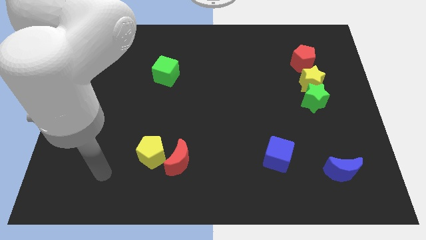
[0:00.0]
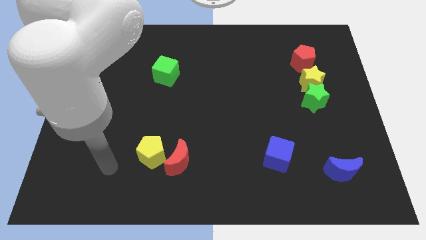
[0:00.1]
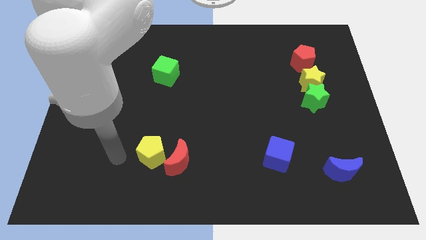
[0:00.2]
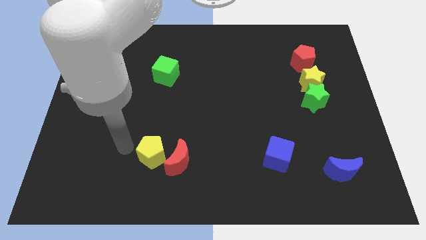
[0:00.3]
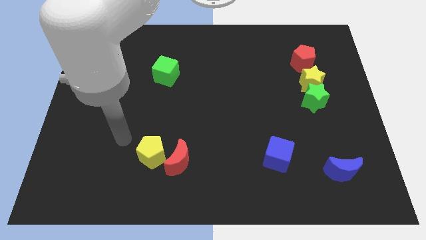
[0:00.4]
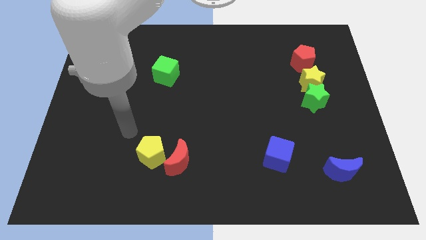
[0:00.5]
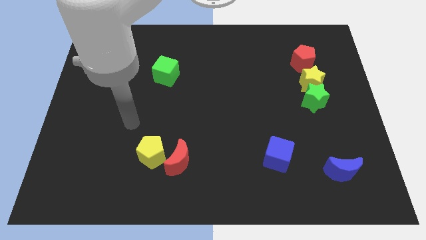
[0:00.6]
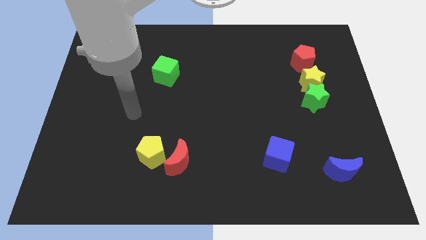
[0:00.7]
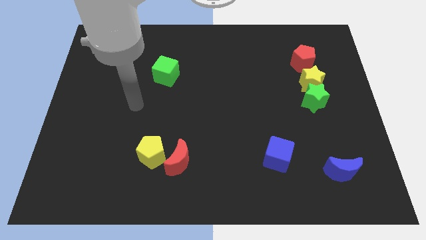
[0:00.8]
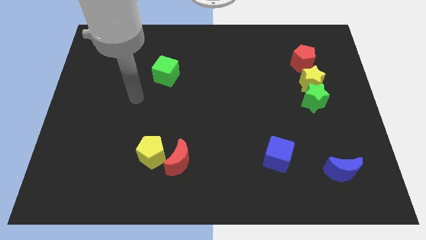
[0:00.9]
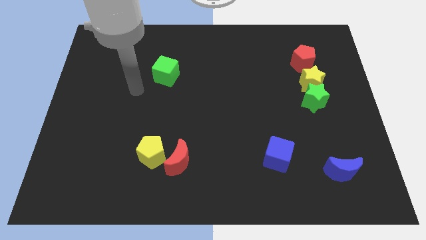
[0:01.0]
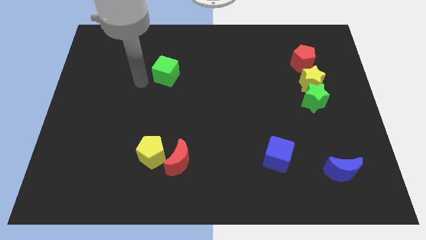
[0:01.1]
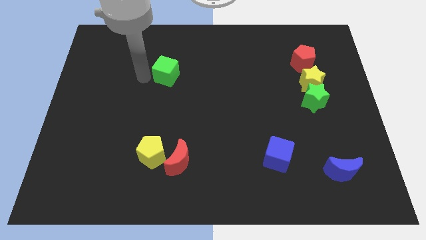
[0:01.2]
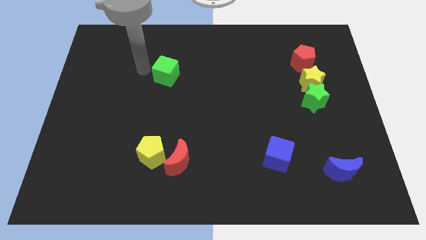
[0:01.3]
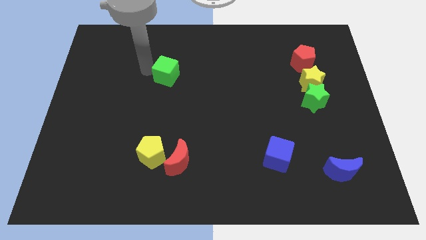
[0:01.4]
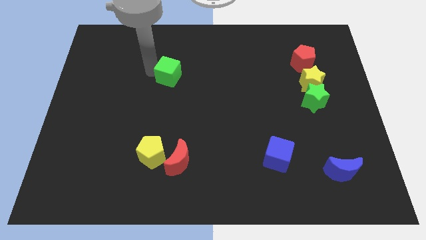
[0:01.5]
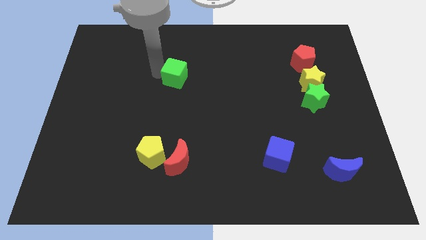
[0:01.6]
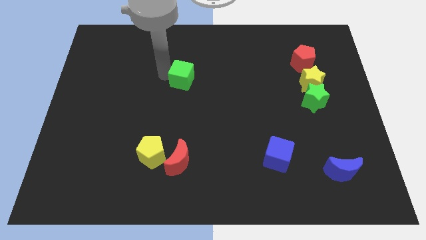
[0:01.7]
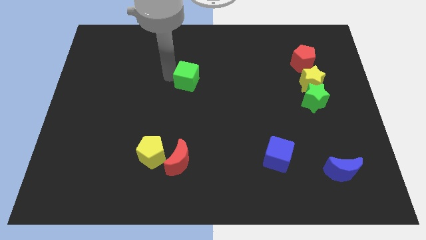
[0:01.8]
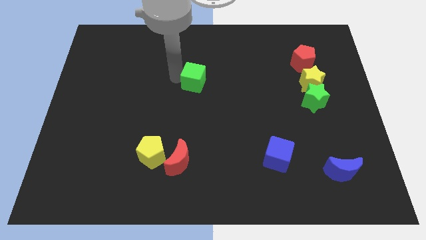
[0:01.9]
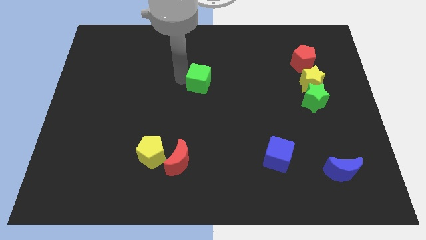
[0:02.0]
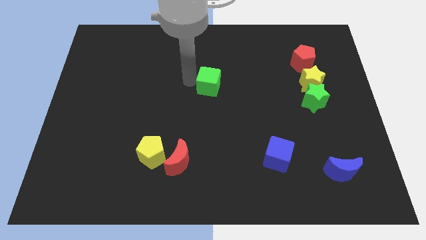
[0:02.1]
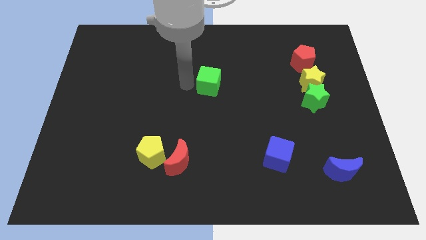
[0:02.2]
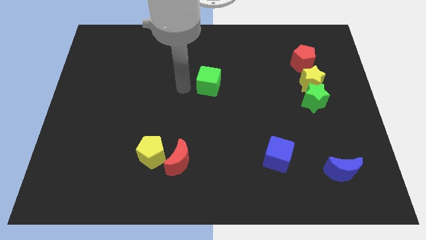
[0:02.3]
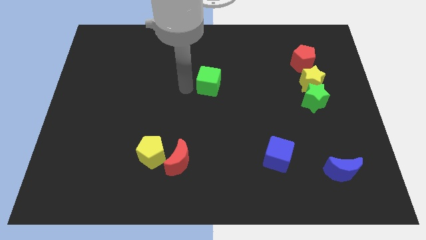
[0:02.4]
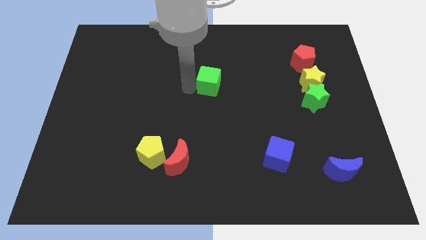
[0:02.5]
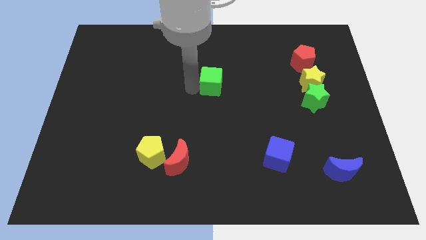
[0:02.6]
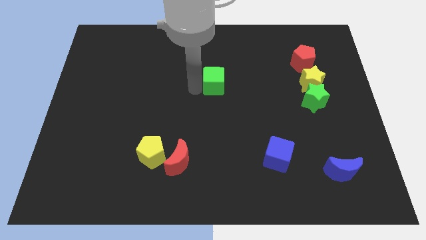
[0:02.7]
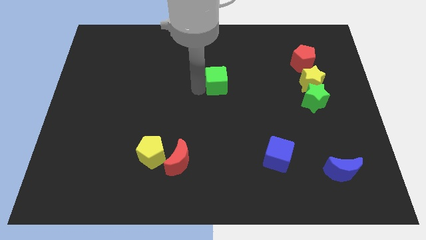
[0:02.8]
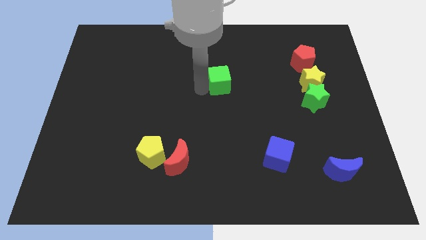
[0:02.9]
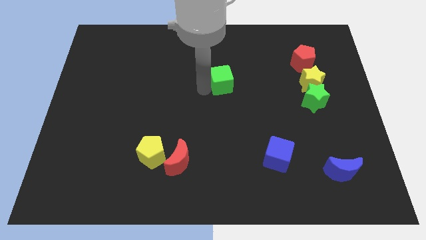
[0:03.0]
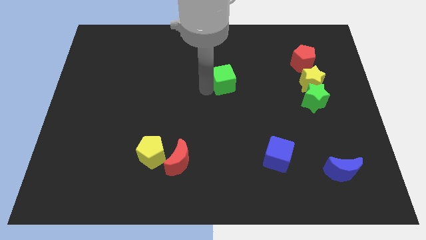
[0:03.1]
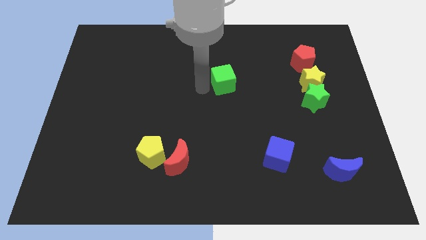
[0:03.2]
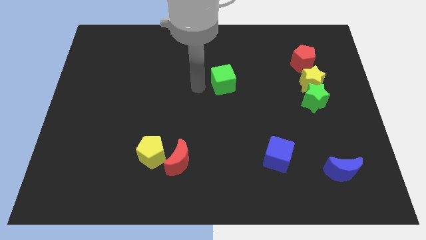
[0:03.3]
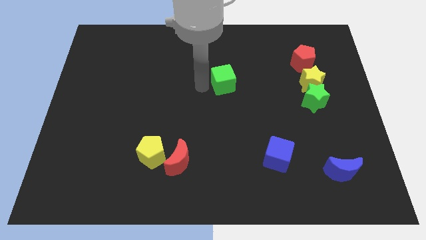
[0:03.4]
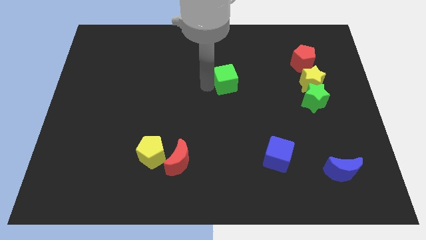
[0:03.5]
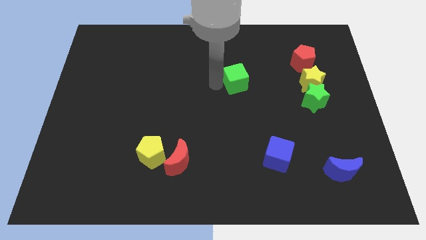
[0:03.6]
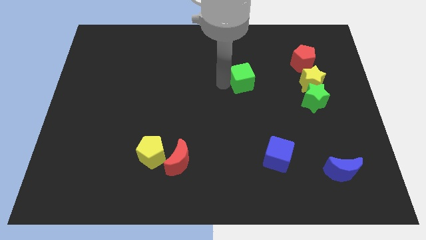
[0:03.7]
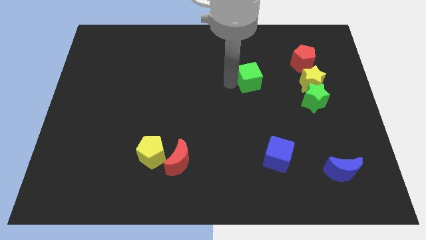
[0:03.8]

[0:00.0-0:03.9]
slide the green cube right

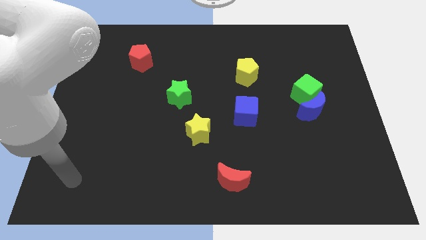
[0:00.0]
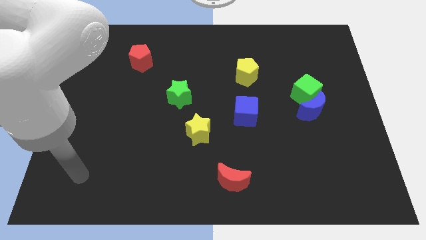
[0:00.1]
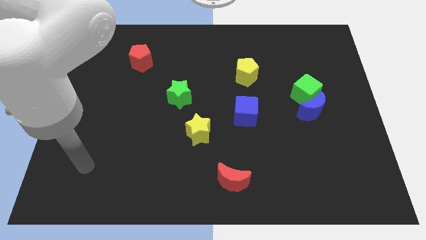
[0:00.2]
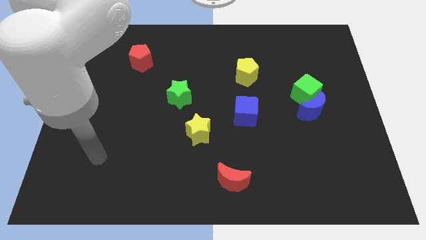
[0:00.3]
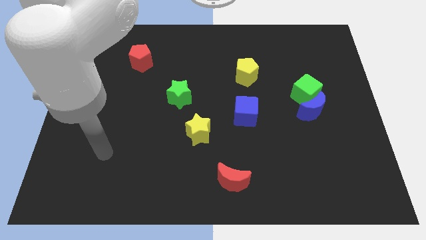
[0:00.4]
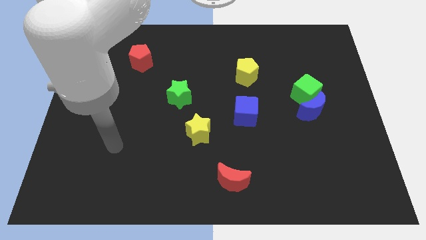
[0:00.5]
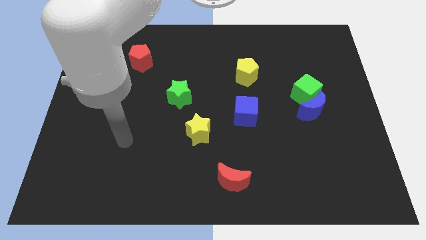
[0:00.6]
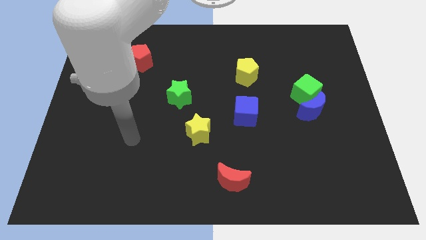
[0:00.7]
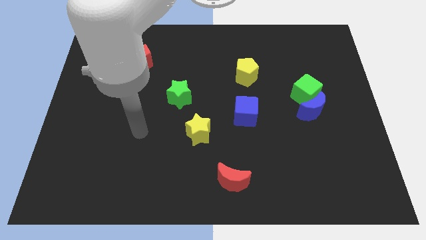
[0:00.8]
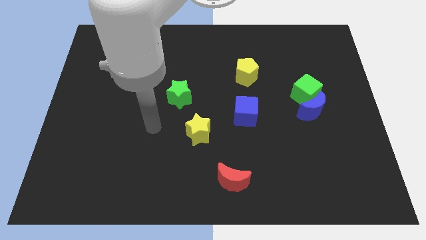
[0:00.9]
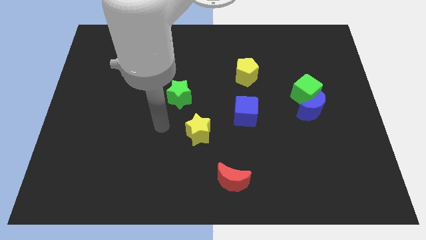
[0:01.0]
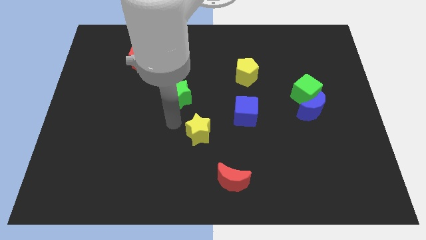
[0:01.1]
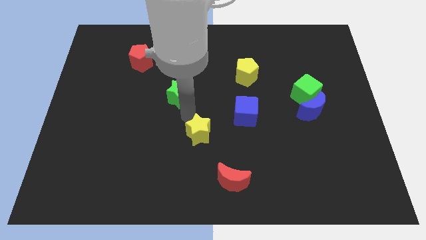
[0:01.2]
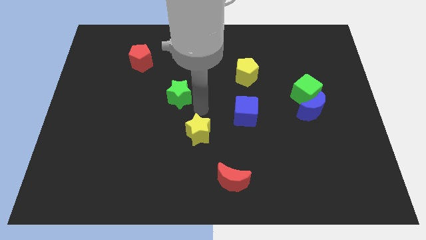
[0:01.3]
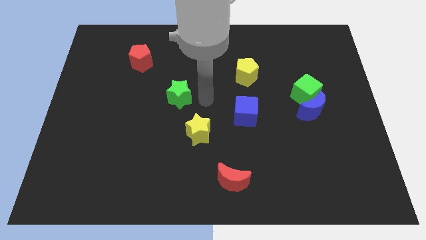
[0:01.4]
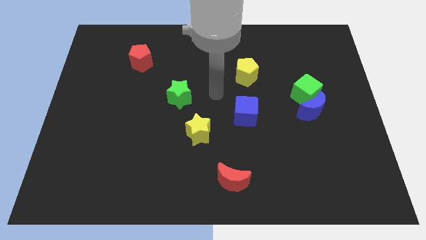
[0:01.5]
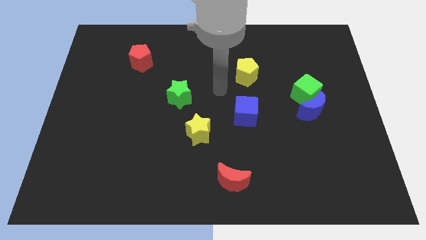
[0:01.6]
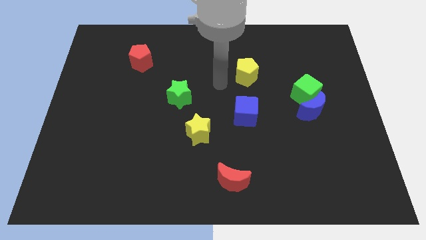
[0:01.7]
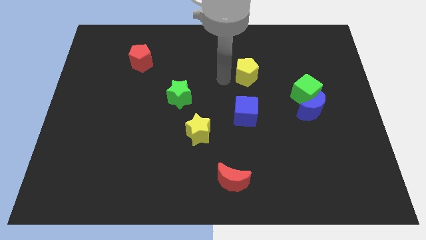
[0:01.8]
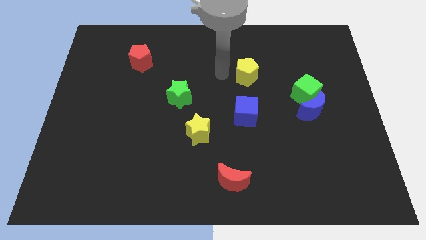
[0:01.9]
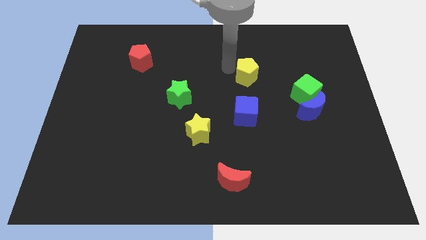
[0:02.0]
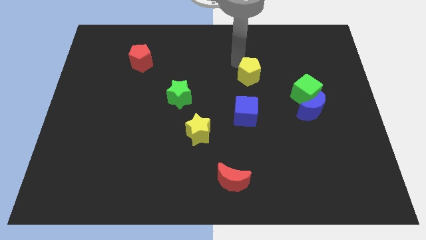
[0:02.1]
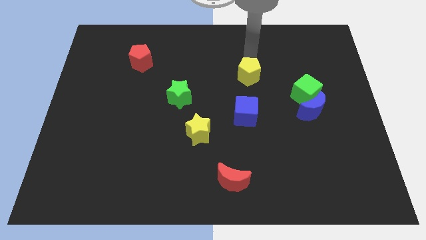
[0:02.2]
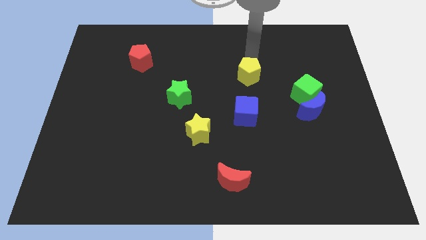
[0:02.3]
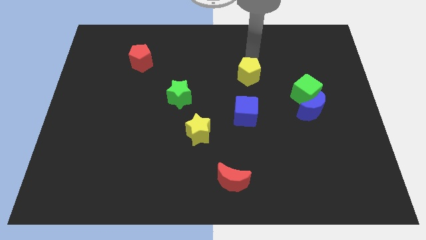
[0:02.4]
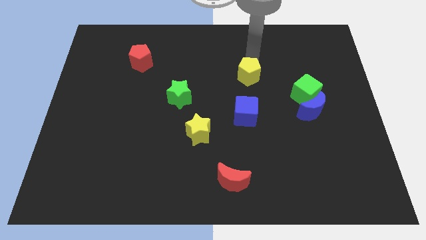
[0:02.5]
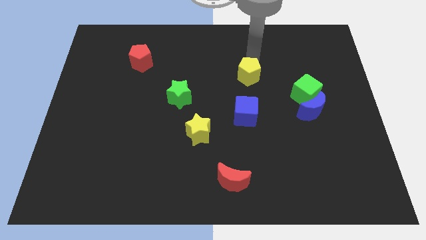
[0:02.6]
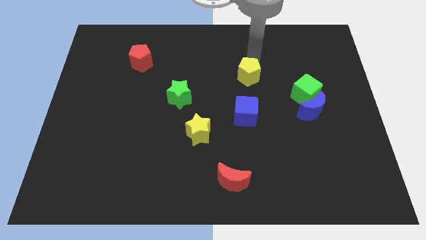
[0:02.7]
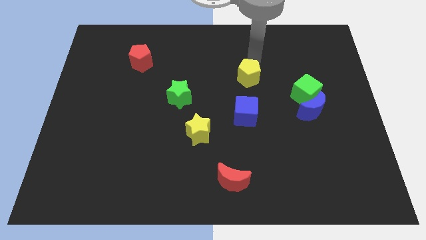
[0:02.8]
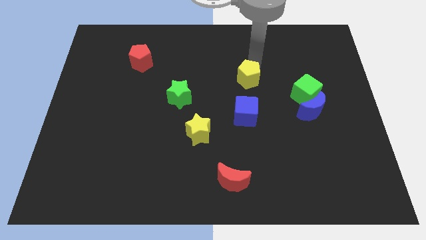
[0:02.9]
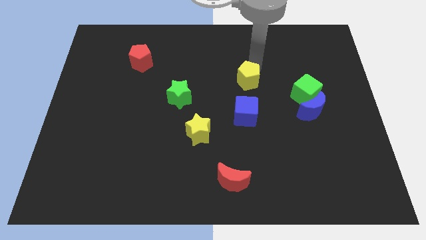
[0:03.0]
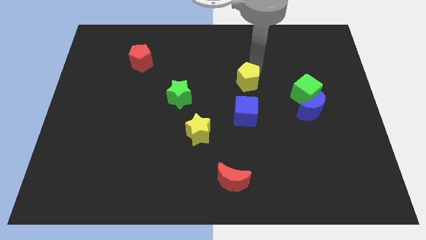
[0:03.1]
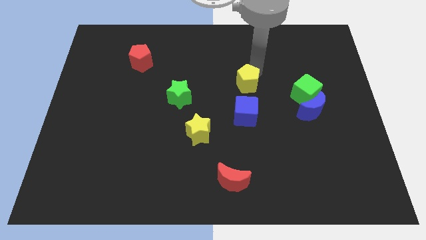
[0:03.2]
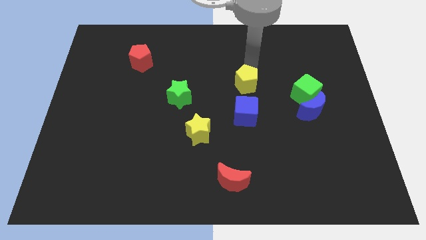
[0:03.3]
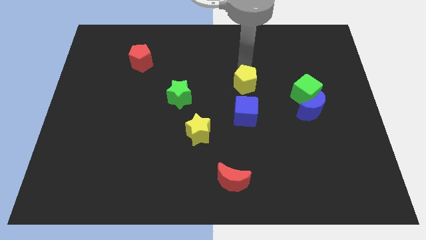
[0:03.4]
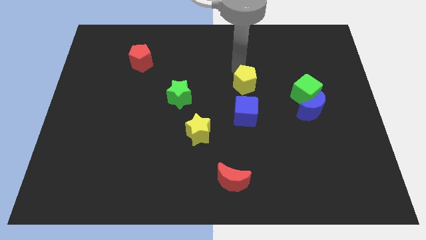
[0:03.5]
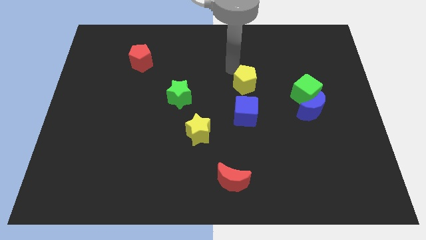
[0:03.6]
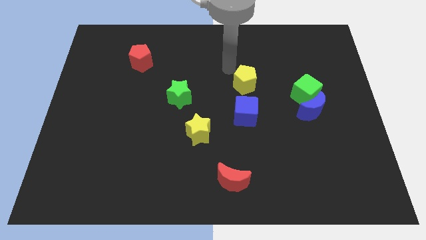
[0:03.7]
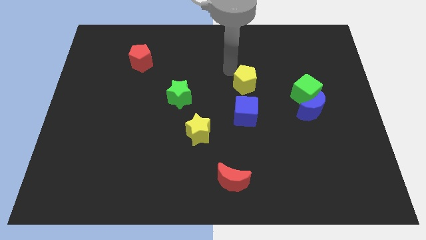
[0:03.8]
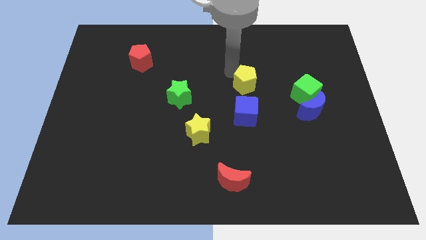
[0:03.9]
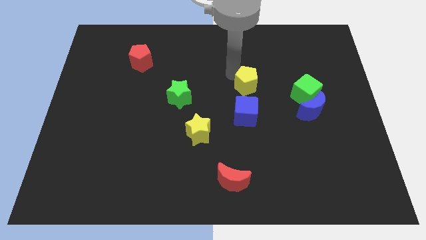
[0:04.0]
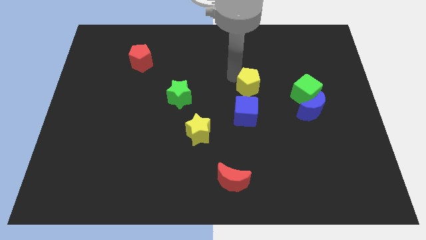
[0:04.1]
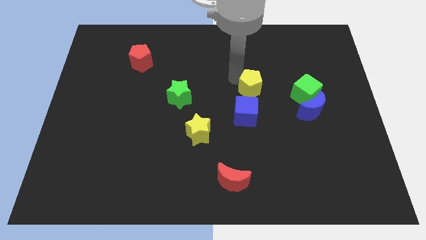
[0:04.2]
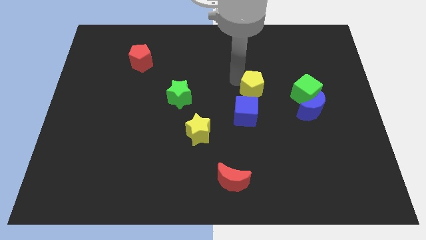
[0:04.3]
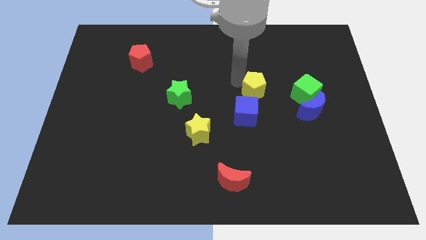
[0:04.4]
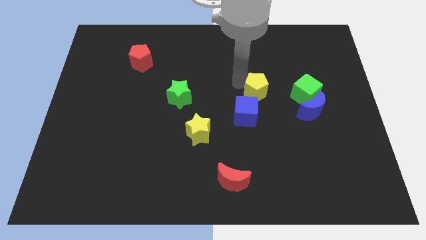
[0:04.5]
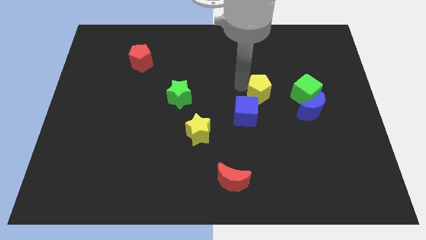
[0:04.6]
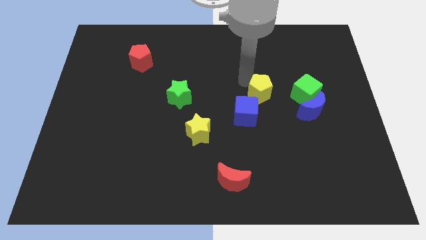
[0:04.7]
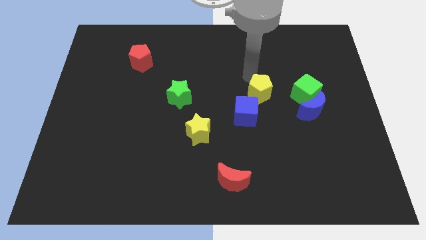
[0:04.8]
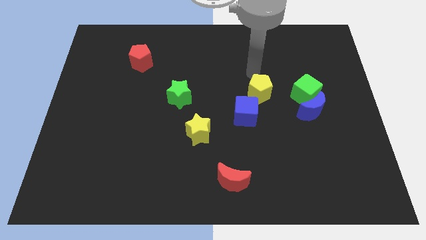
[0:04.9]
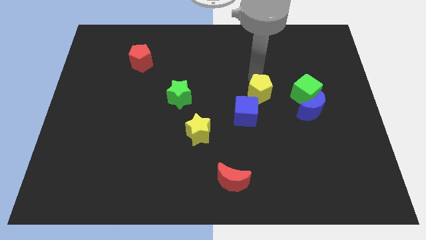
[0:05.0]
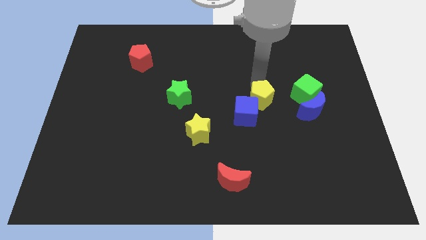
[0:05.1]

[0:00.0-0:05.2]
slightly push the yellow pentagon downwards
